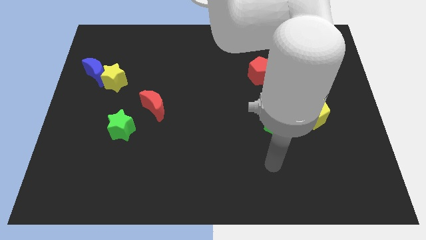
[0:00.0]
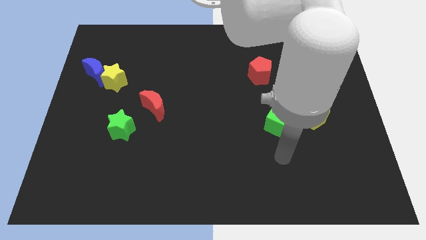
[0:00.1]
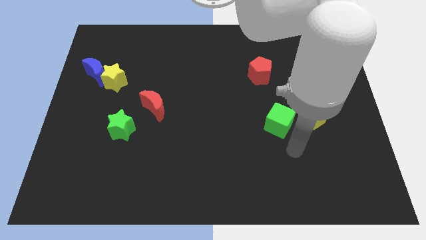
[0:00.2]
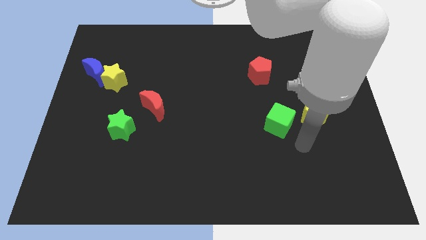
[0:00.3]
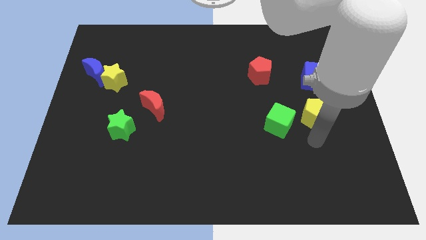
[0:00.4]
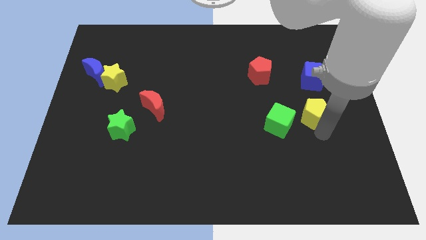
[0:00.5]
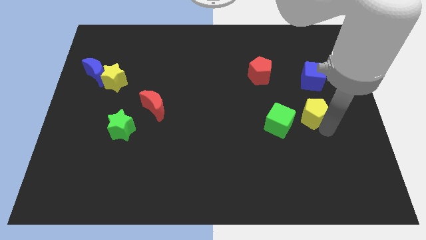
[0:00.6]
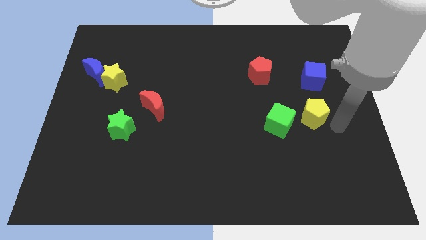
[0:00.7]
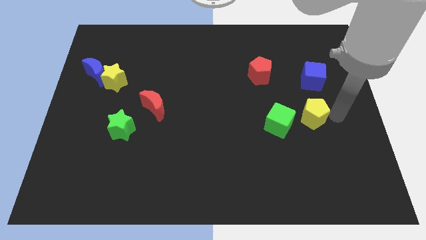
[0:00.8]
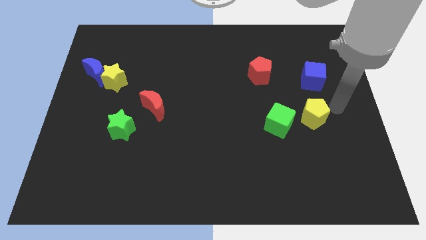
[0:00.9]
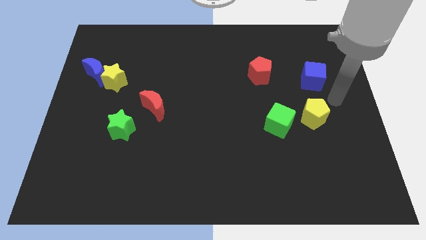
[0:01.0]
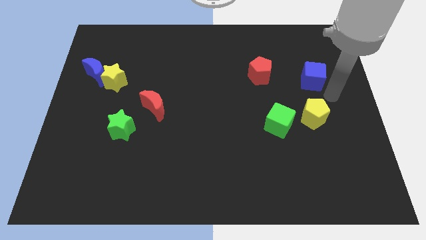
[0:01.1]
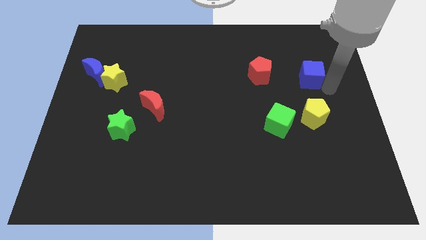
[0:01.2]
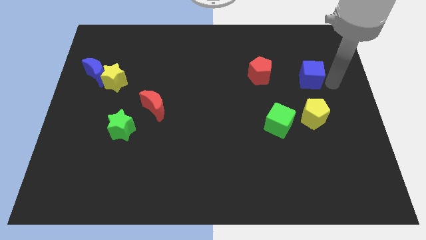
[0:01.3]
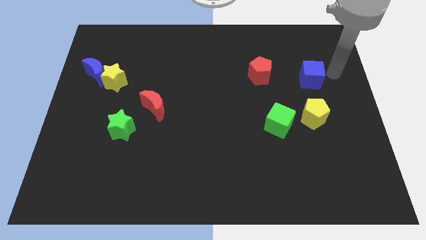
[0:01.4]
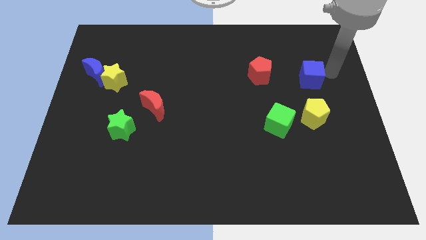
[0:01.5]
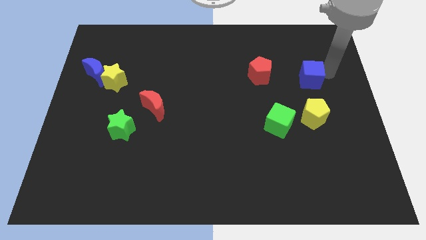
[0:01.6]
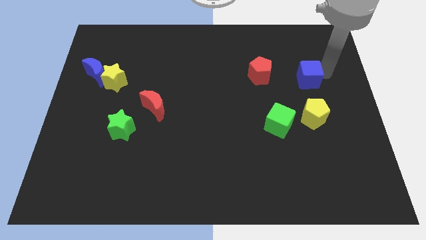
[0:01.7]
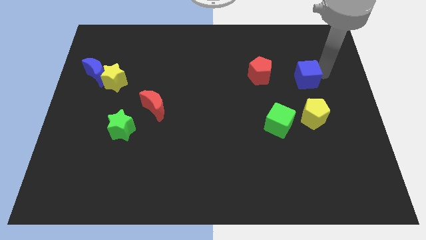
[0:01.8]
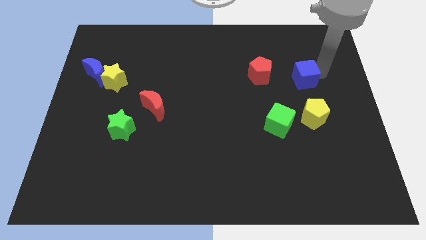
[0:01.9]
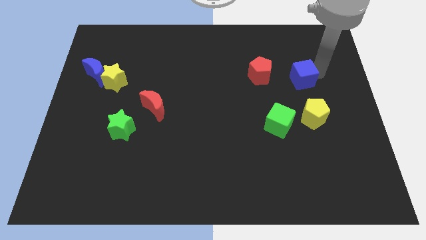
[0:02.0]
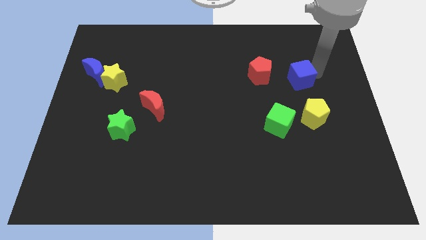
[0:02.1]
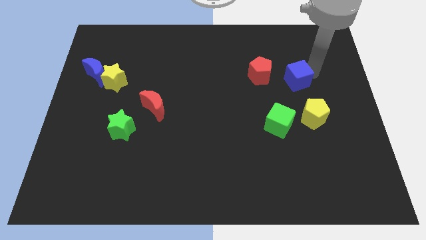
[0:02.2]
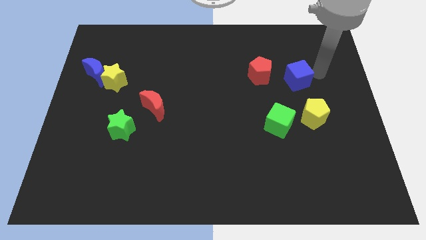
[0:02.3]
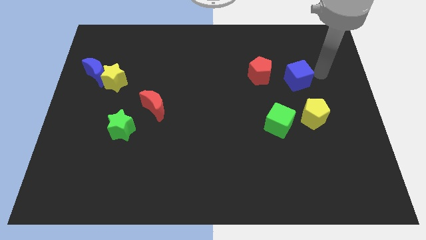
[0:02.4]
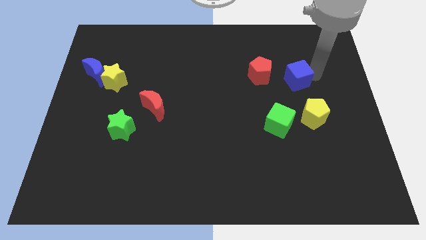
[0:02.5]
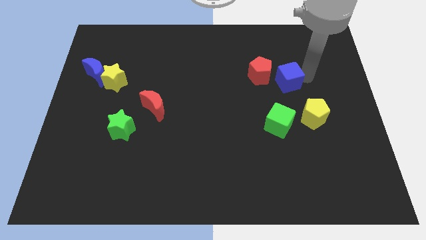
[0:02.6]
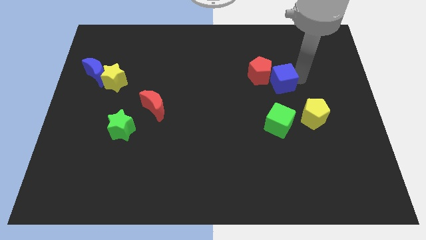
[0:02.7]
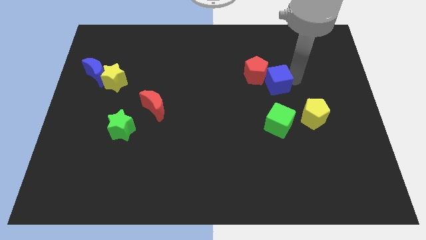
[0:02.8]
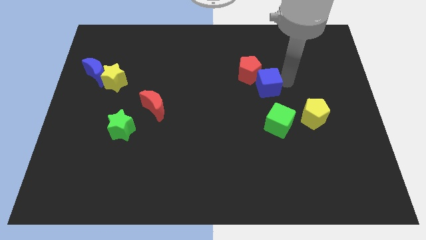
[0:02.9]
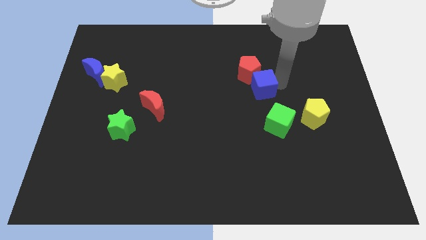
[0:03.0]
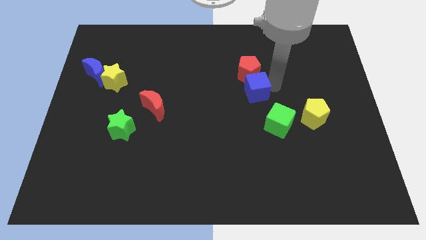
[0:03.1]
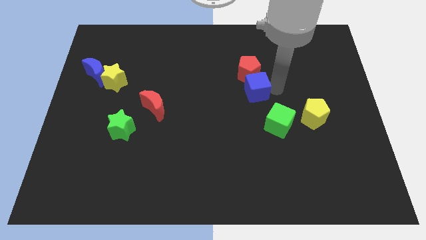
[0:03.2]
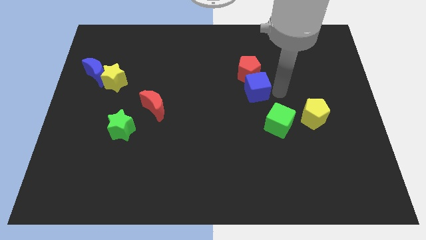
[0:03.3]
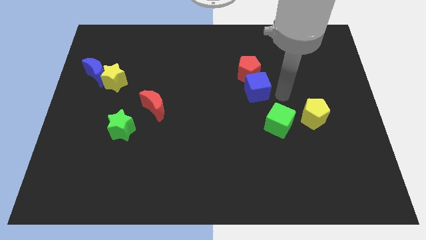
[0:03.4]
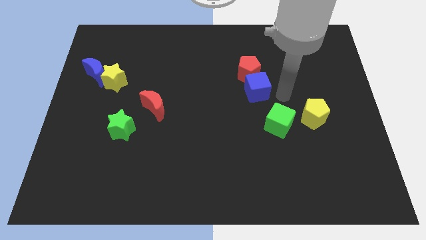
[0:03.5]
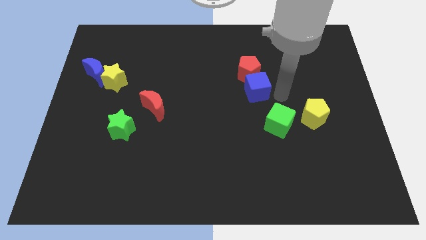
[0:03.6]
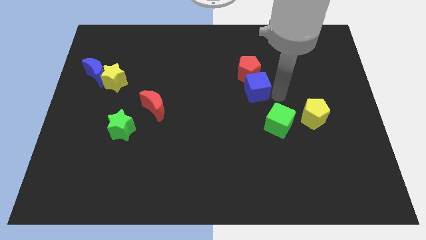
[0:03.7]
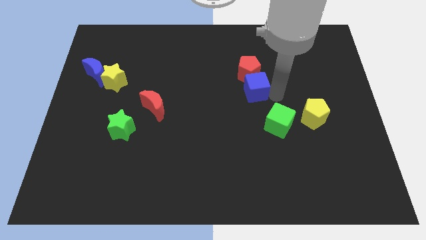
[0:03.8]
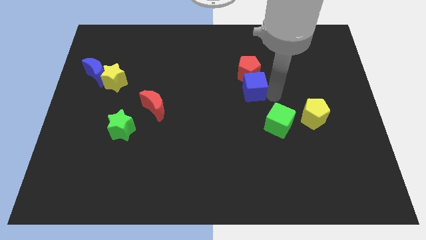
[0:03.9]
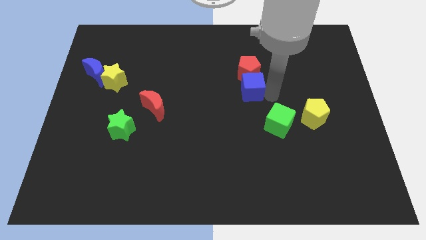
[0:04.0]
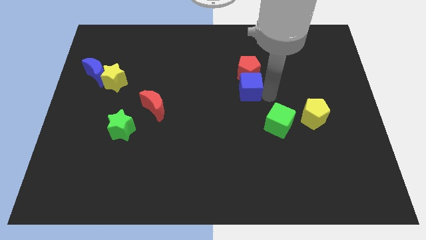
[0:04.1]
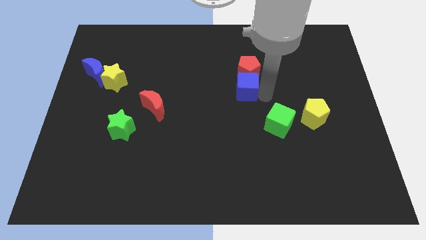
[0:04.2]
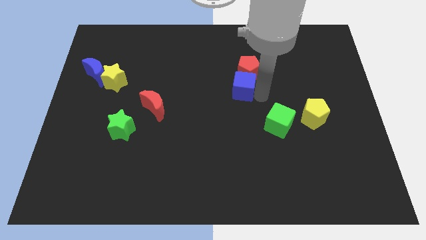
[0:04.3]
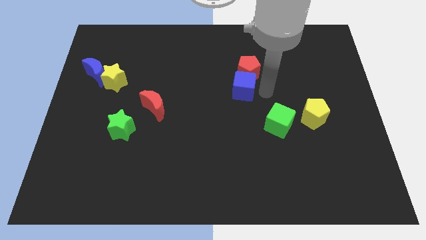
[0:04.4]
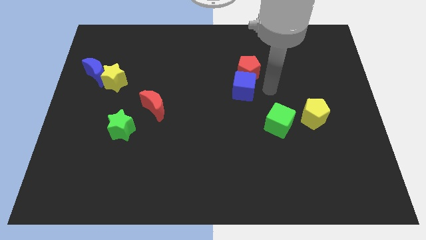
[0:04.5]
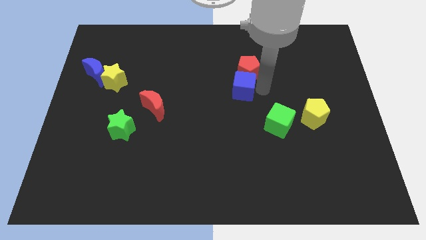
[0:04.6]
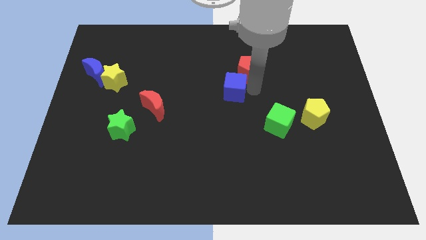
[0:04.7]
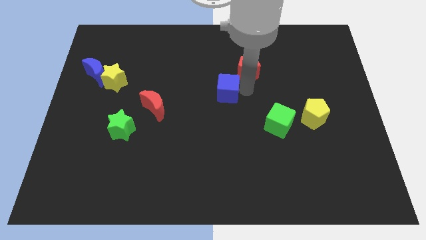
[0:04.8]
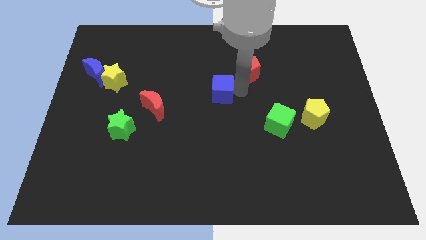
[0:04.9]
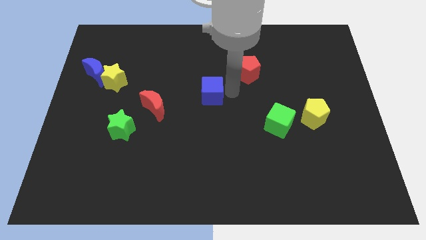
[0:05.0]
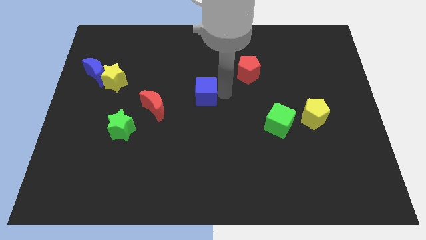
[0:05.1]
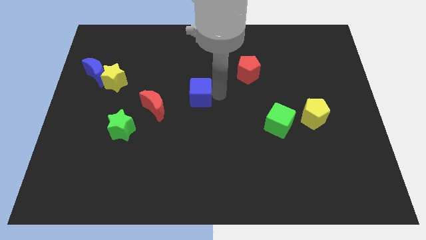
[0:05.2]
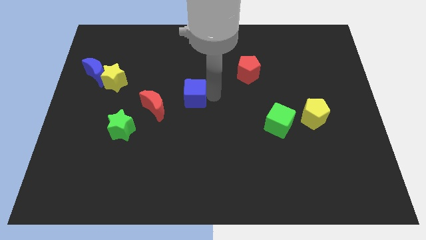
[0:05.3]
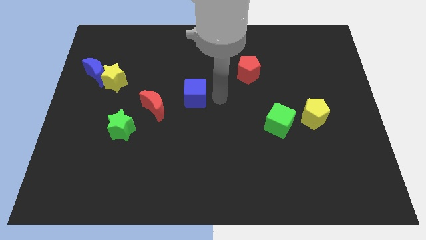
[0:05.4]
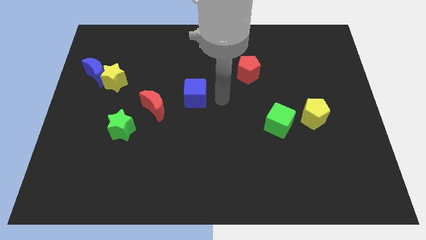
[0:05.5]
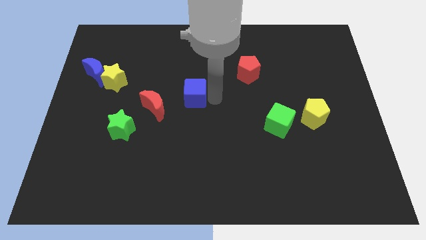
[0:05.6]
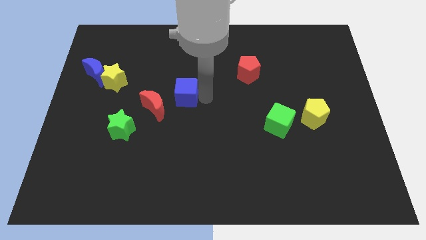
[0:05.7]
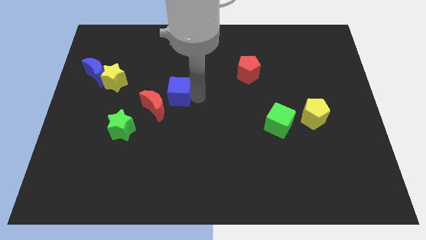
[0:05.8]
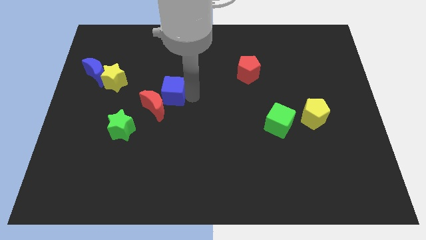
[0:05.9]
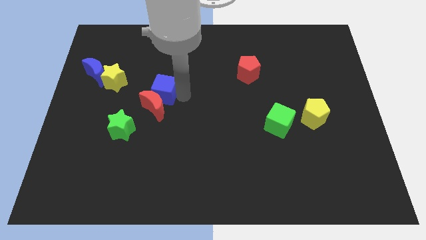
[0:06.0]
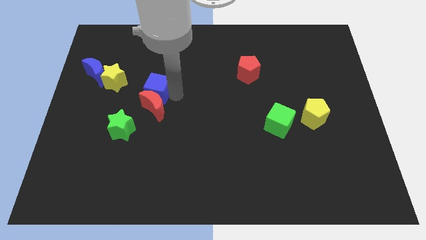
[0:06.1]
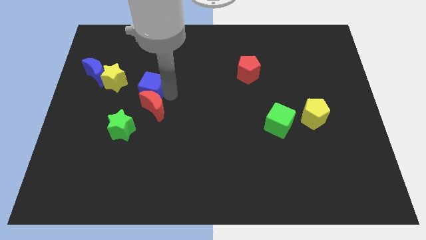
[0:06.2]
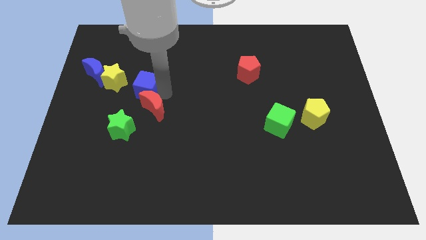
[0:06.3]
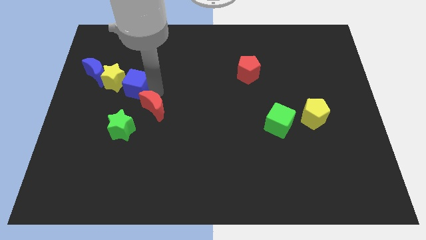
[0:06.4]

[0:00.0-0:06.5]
put the blue cube towards the yellow star
